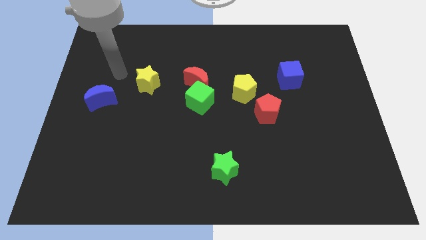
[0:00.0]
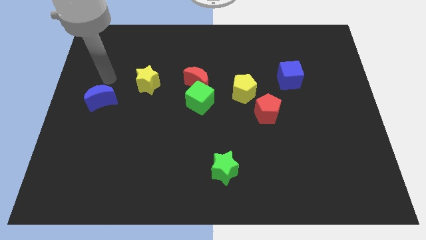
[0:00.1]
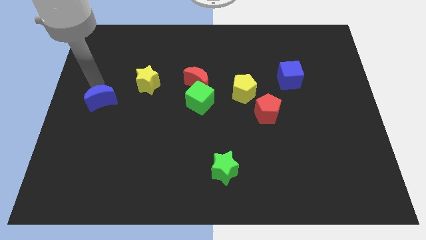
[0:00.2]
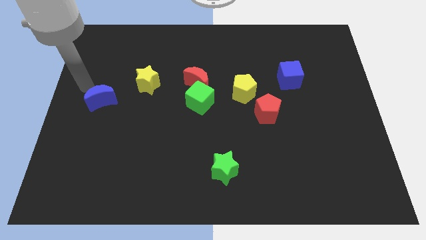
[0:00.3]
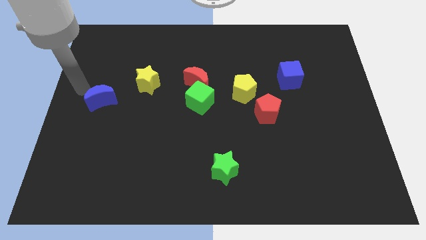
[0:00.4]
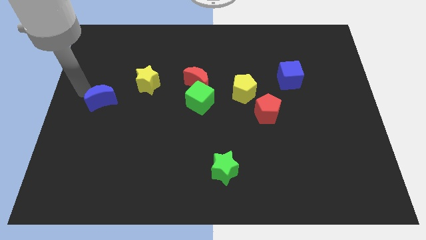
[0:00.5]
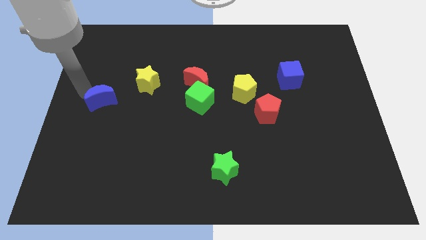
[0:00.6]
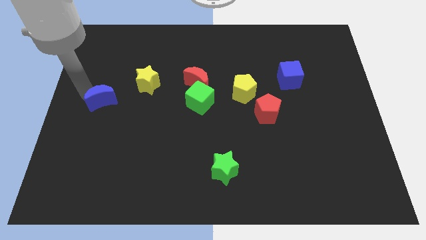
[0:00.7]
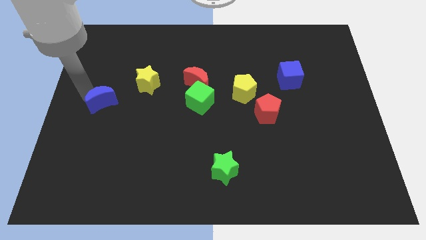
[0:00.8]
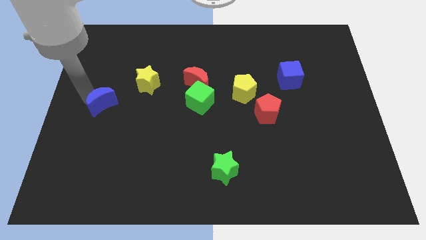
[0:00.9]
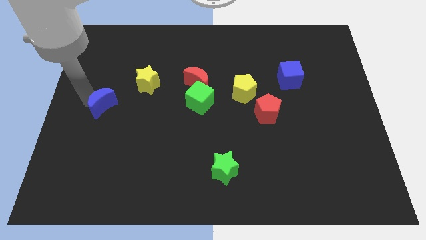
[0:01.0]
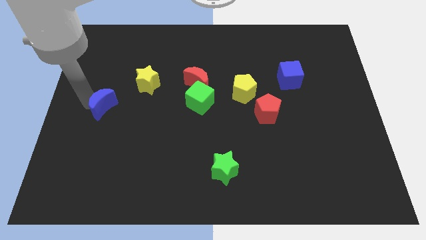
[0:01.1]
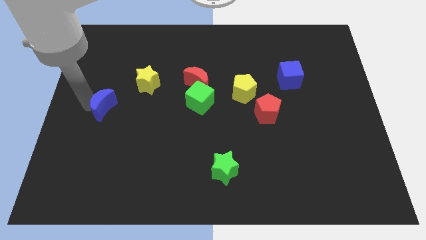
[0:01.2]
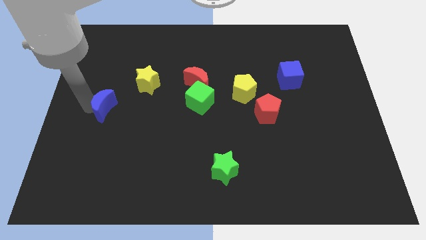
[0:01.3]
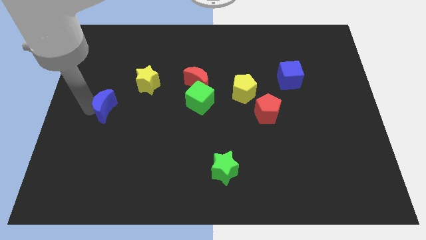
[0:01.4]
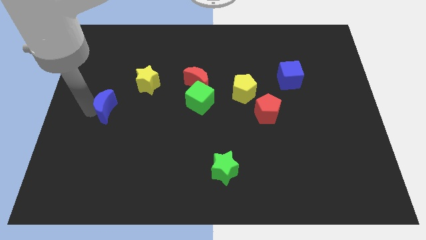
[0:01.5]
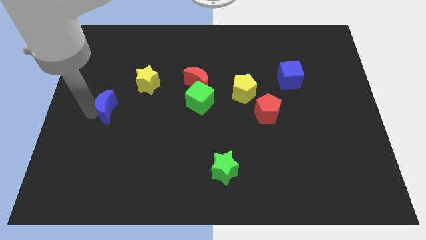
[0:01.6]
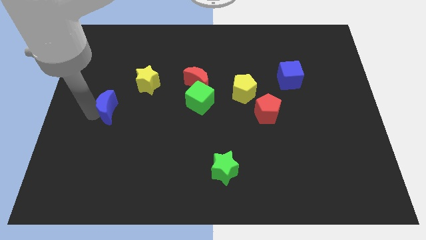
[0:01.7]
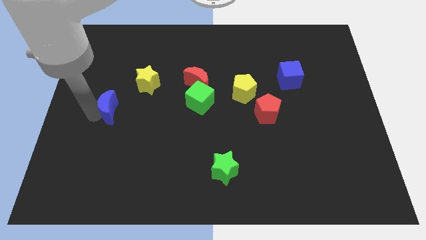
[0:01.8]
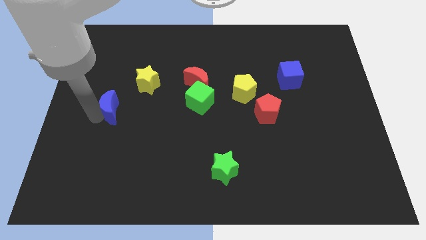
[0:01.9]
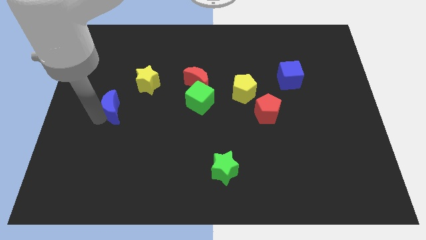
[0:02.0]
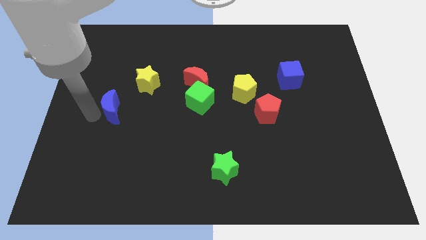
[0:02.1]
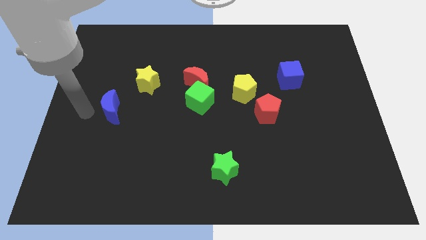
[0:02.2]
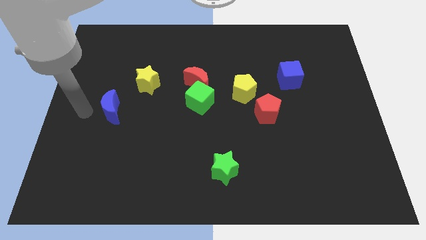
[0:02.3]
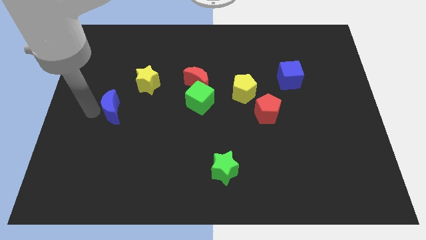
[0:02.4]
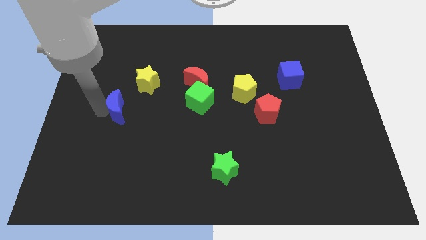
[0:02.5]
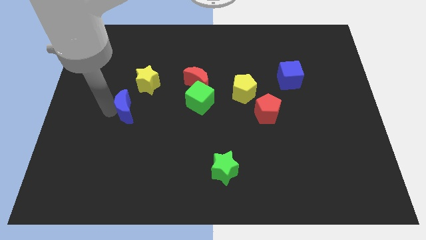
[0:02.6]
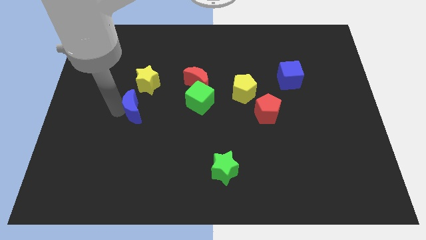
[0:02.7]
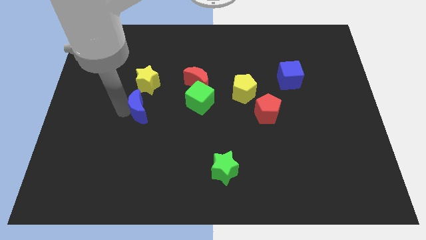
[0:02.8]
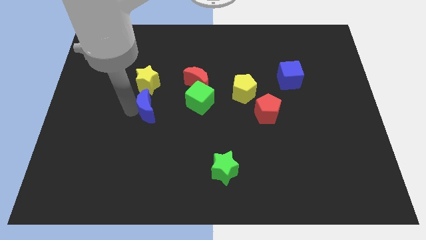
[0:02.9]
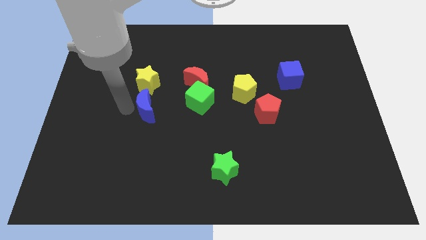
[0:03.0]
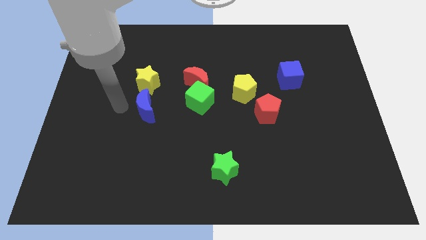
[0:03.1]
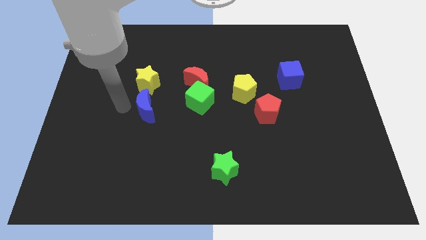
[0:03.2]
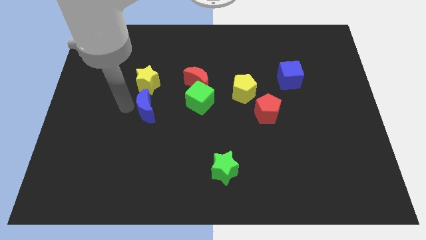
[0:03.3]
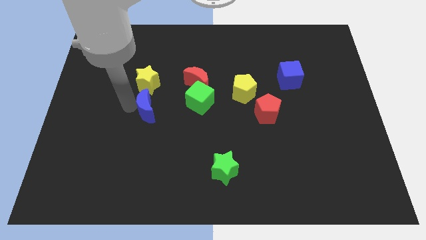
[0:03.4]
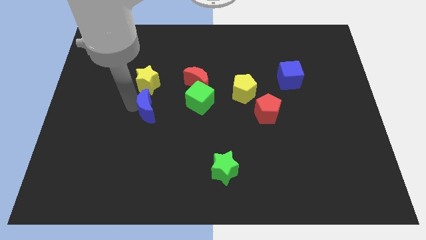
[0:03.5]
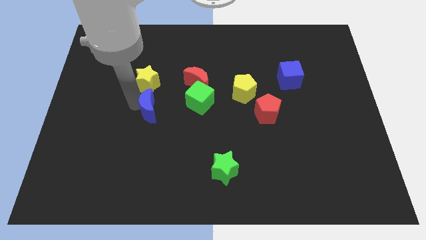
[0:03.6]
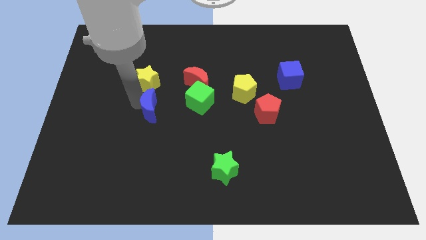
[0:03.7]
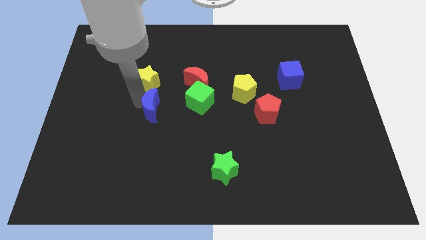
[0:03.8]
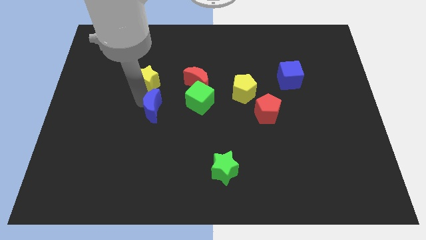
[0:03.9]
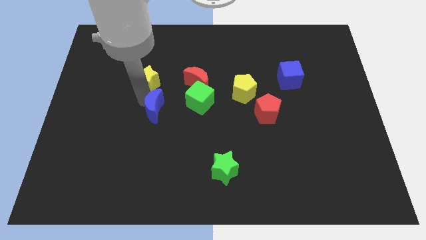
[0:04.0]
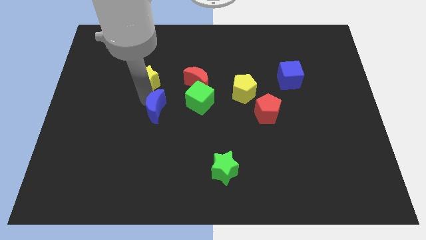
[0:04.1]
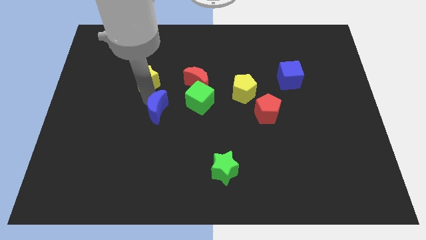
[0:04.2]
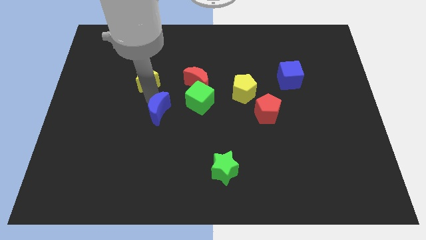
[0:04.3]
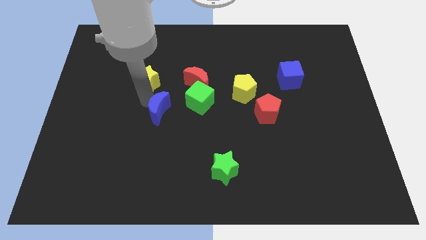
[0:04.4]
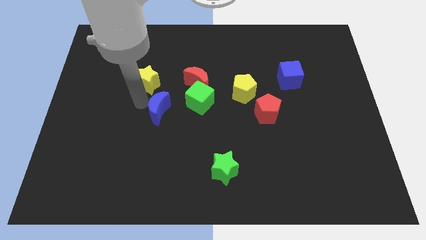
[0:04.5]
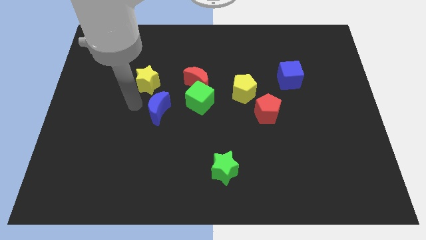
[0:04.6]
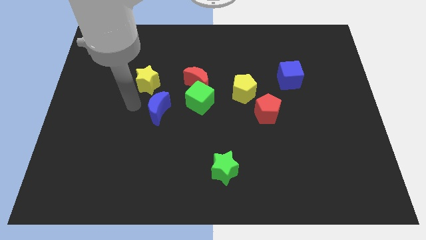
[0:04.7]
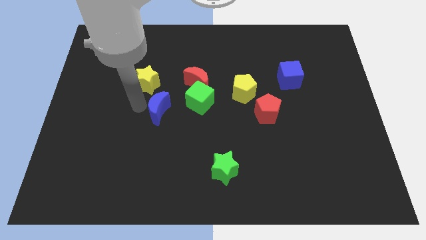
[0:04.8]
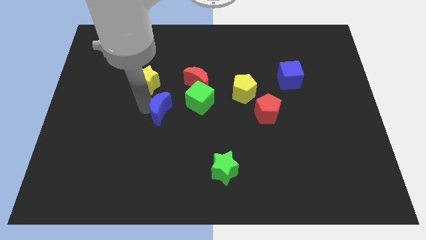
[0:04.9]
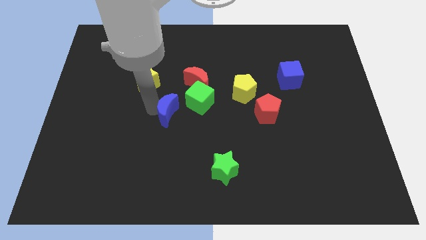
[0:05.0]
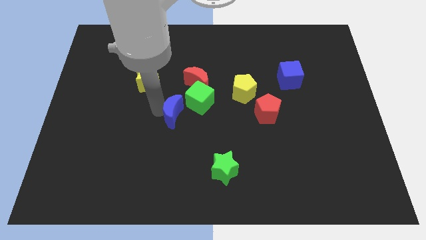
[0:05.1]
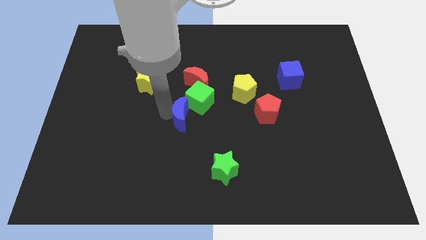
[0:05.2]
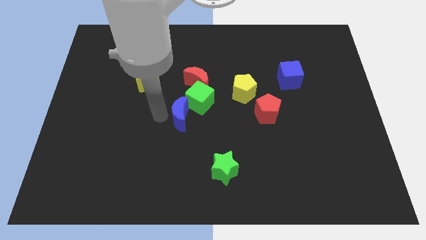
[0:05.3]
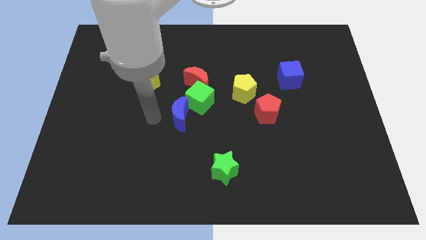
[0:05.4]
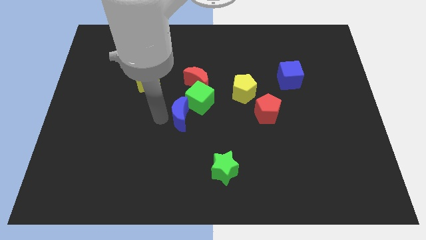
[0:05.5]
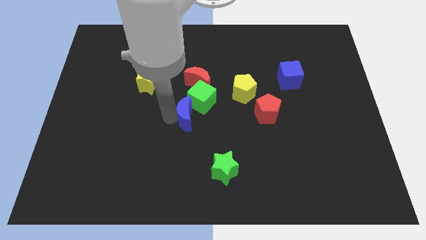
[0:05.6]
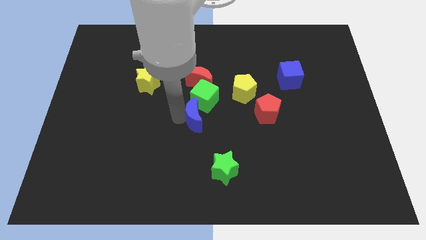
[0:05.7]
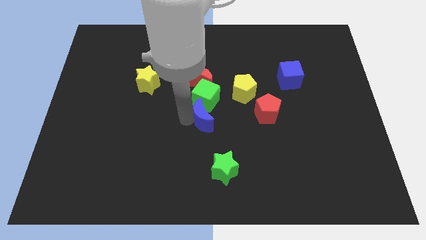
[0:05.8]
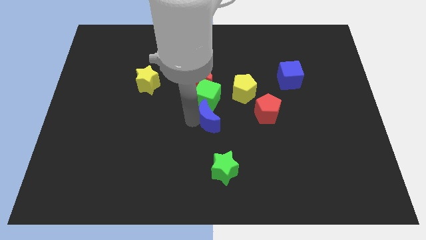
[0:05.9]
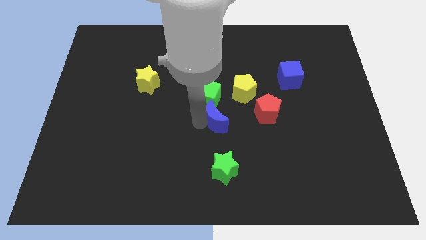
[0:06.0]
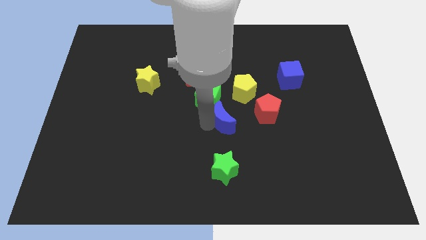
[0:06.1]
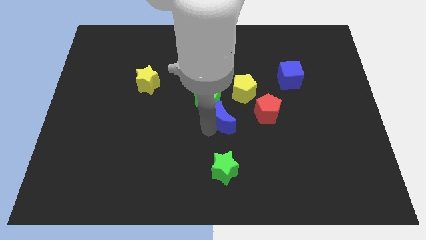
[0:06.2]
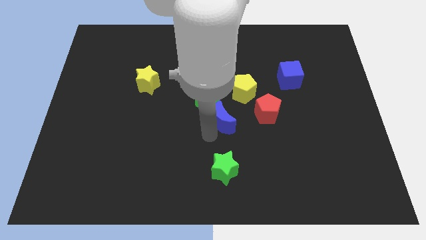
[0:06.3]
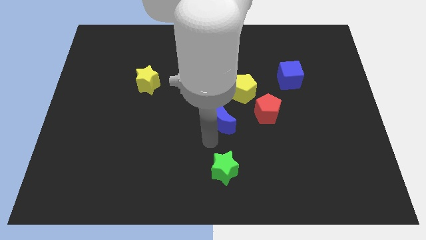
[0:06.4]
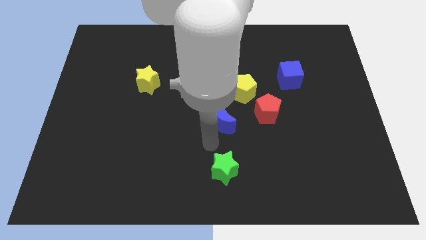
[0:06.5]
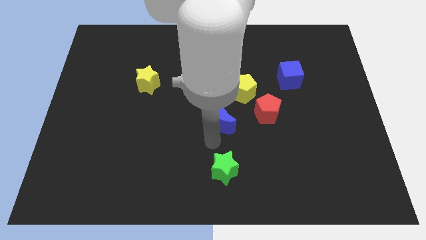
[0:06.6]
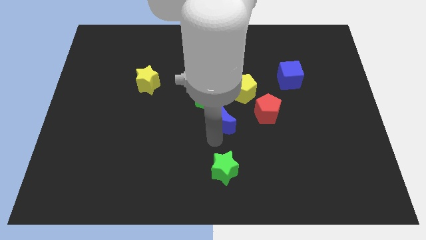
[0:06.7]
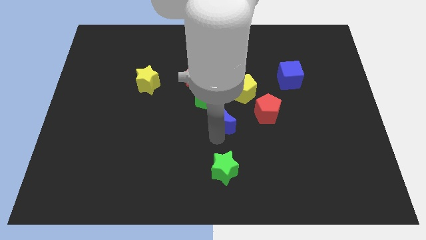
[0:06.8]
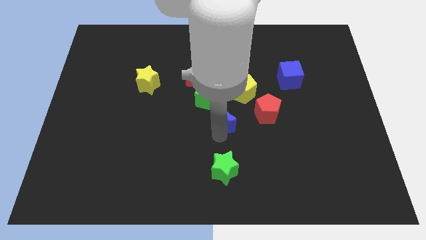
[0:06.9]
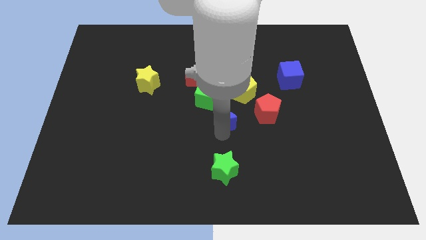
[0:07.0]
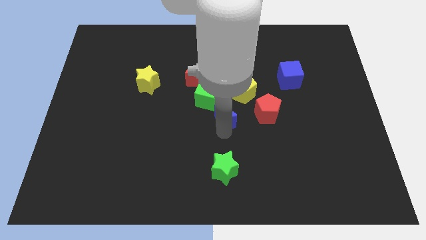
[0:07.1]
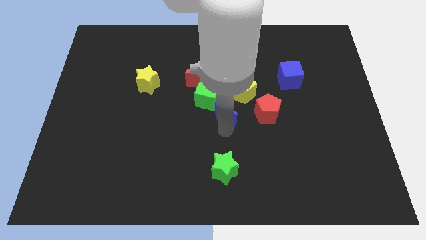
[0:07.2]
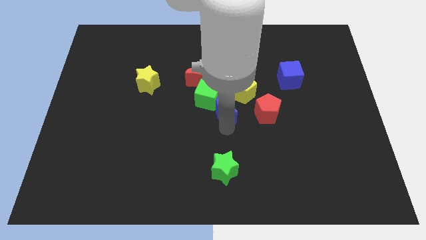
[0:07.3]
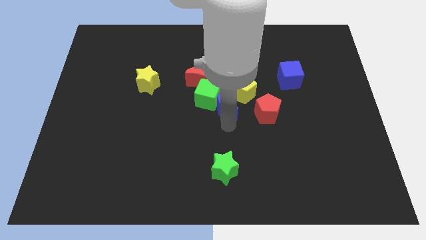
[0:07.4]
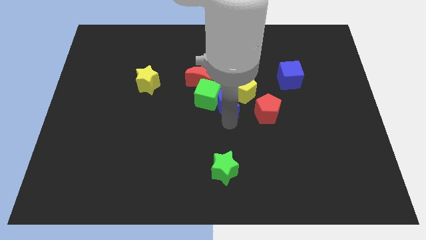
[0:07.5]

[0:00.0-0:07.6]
push the blue moon next to the yellow pentagon
